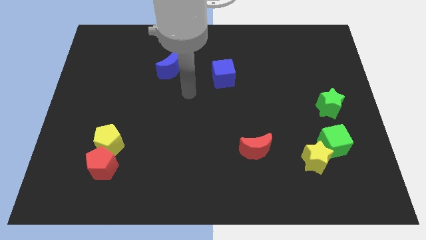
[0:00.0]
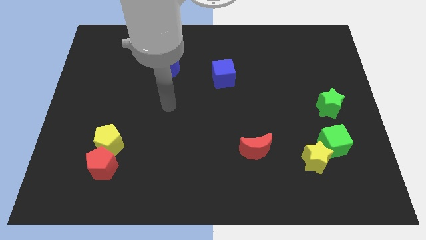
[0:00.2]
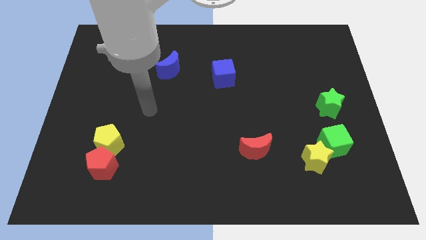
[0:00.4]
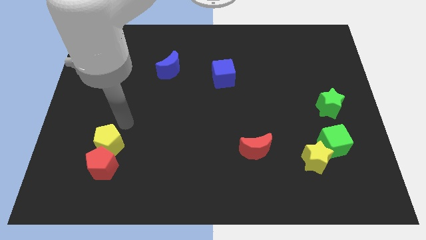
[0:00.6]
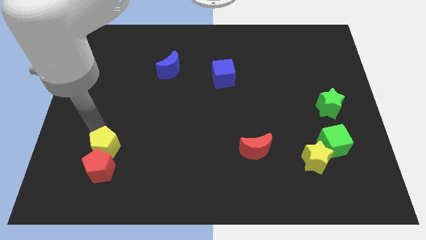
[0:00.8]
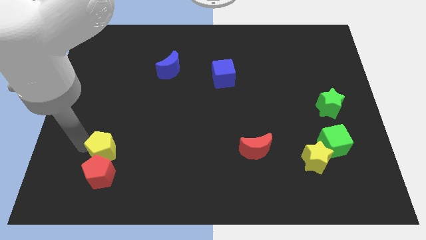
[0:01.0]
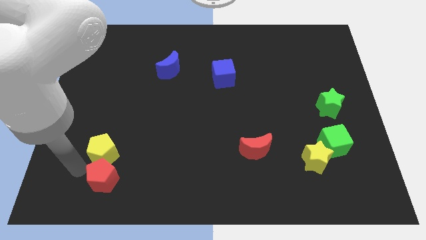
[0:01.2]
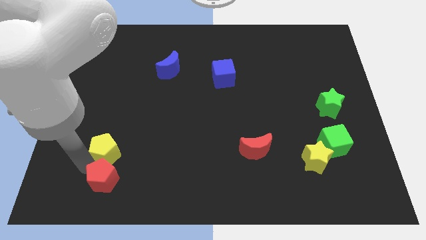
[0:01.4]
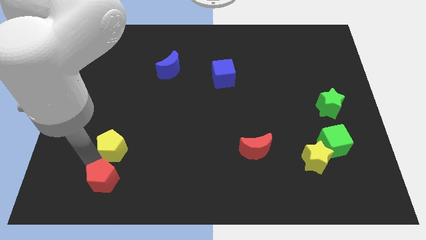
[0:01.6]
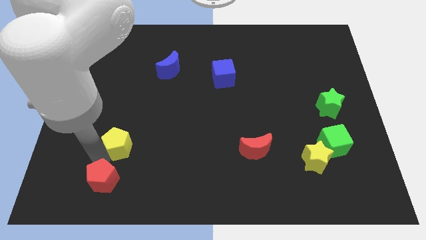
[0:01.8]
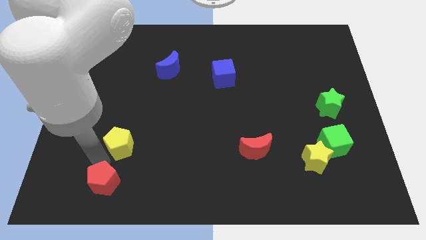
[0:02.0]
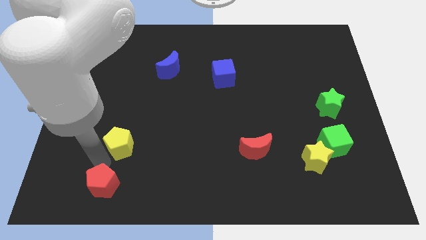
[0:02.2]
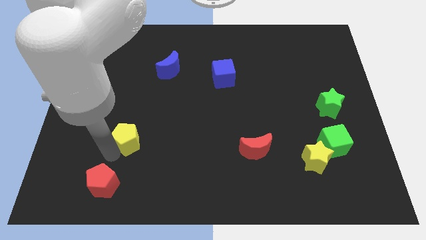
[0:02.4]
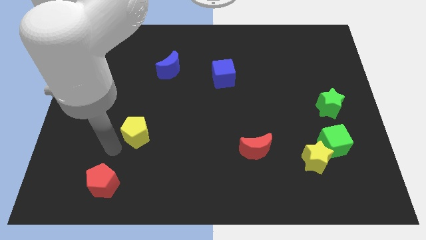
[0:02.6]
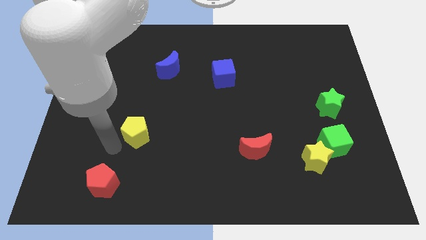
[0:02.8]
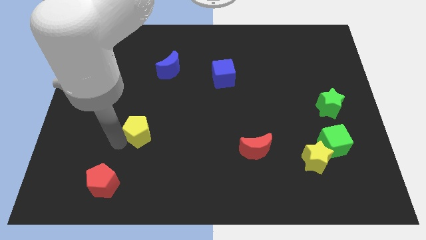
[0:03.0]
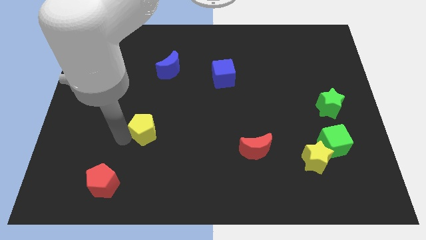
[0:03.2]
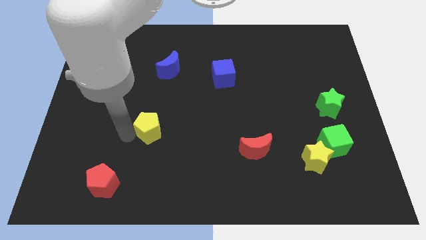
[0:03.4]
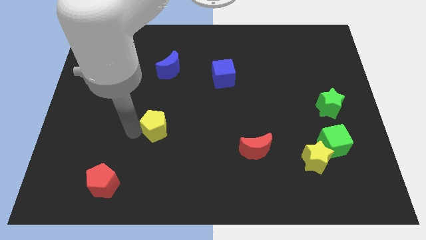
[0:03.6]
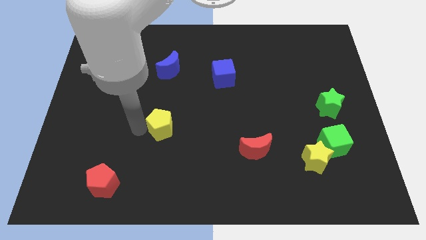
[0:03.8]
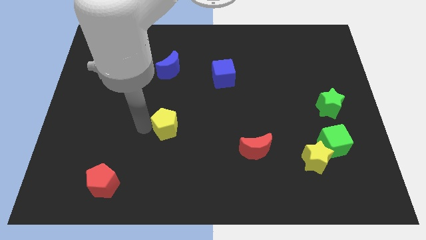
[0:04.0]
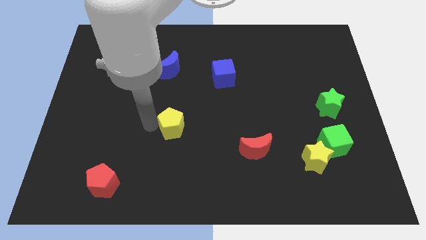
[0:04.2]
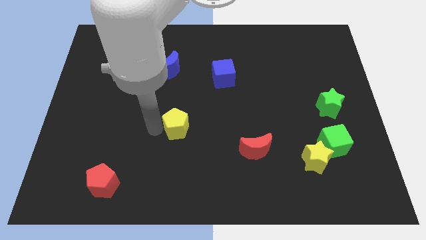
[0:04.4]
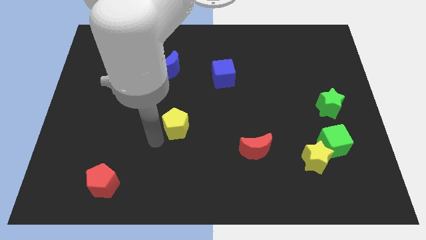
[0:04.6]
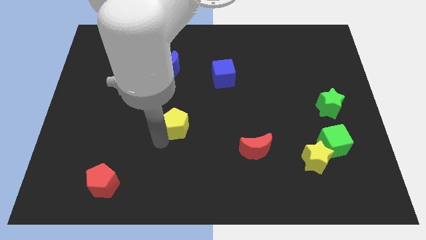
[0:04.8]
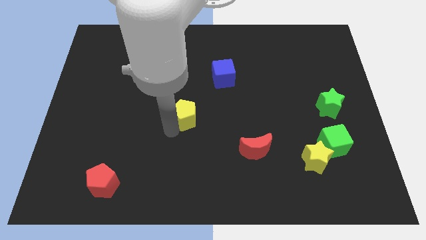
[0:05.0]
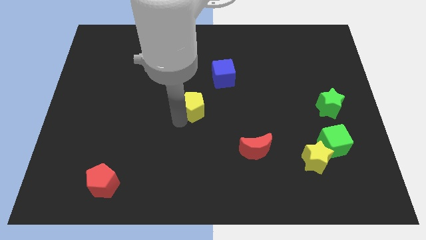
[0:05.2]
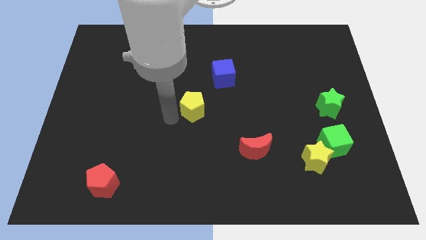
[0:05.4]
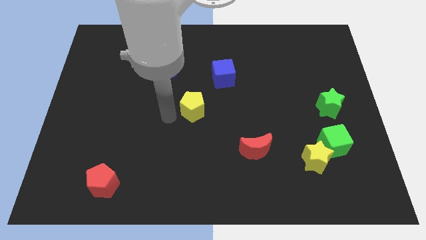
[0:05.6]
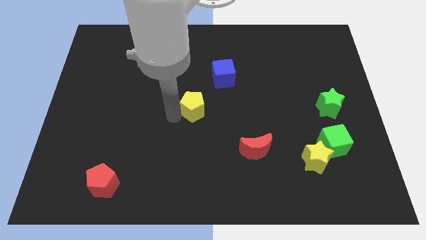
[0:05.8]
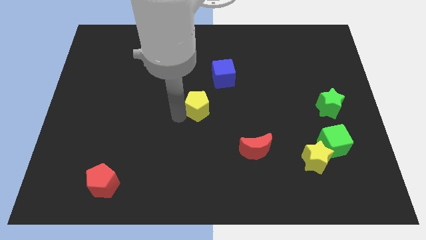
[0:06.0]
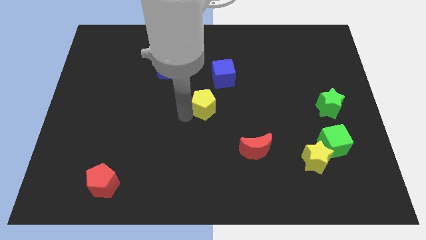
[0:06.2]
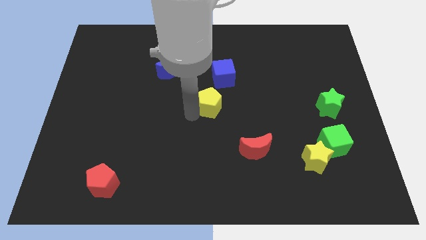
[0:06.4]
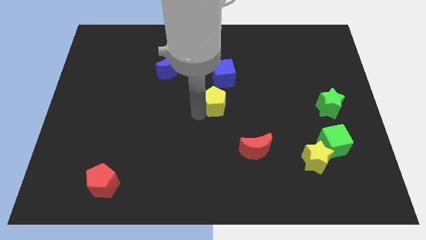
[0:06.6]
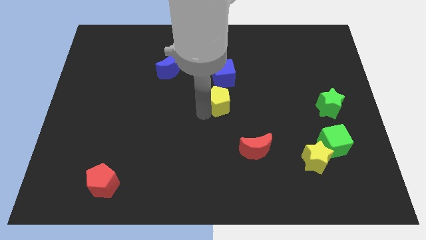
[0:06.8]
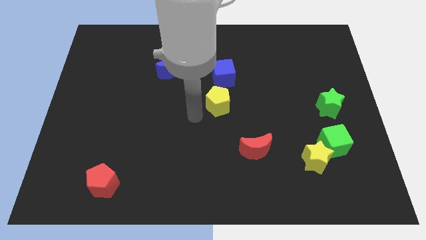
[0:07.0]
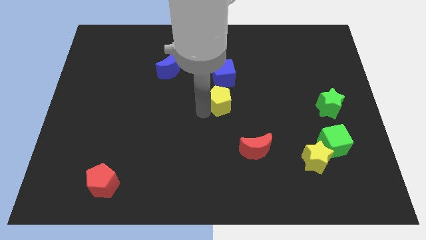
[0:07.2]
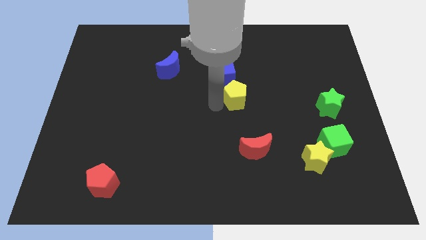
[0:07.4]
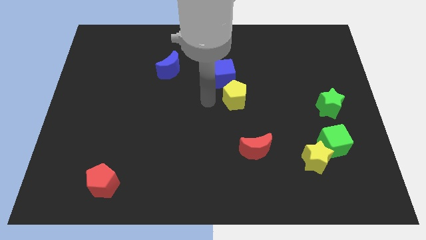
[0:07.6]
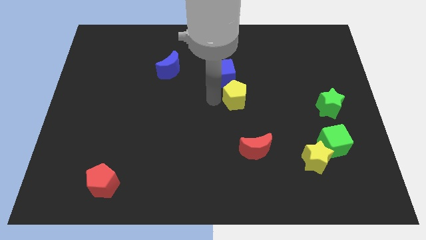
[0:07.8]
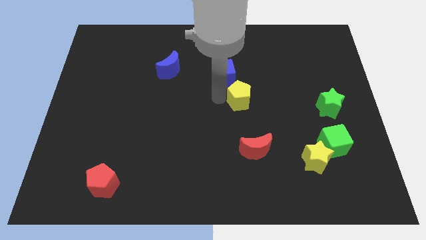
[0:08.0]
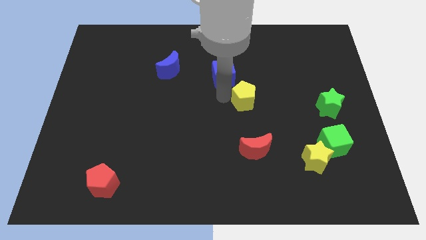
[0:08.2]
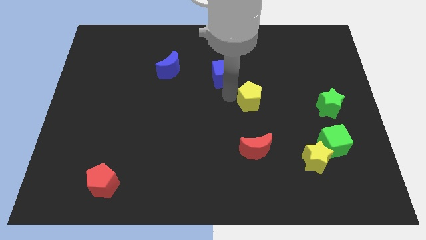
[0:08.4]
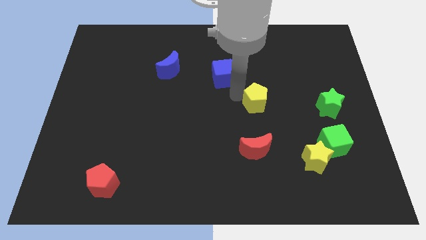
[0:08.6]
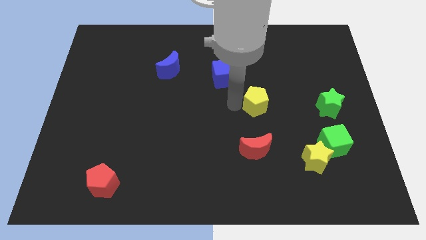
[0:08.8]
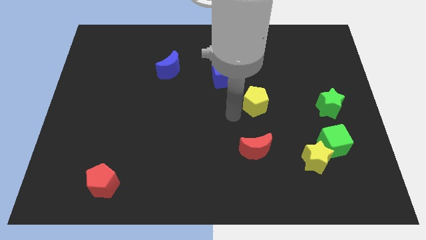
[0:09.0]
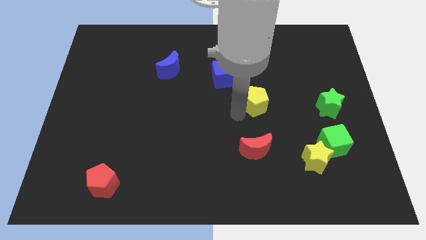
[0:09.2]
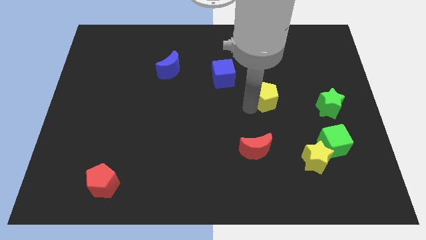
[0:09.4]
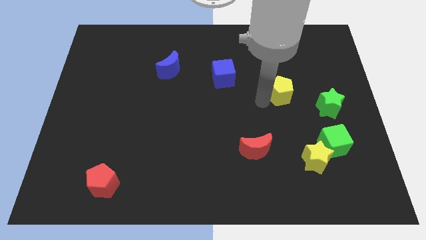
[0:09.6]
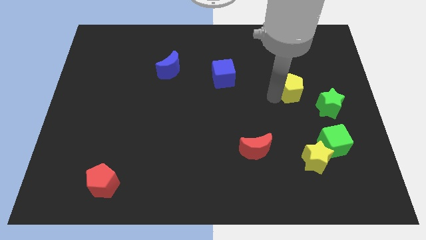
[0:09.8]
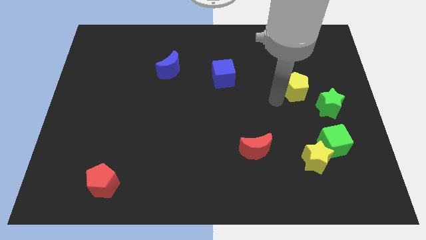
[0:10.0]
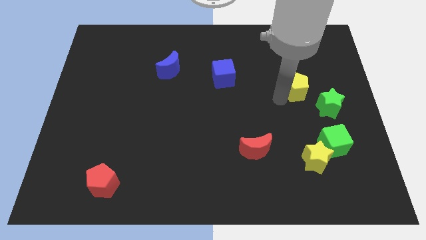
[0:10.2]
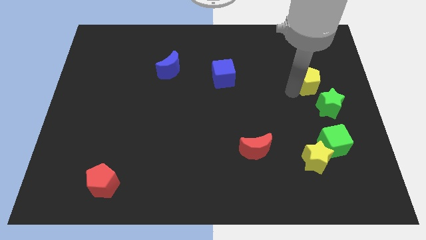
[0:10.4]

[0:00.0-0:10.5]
push the yellow pentagon above the green star

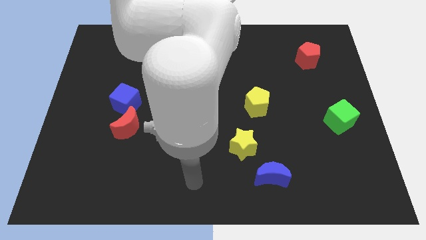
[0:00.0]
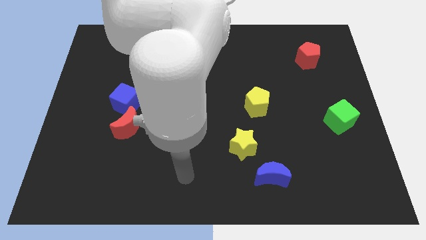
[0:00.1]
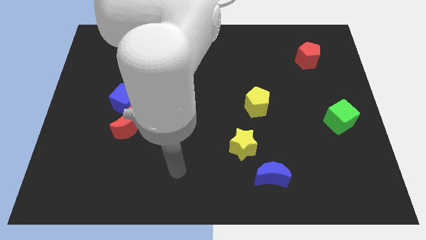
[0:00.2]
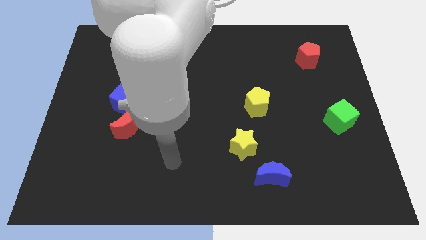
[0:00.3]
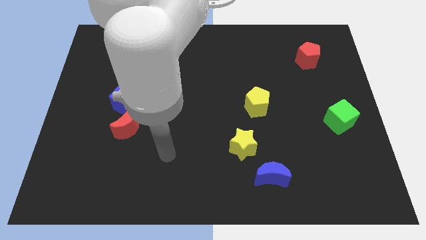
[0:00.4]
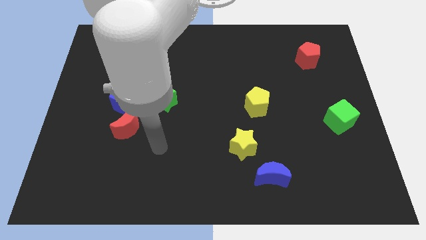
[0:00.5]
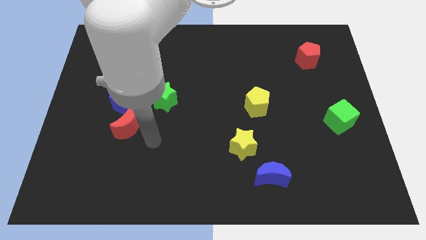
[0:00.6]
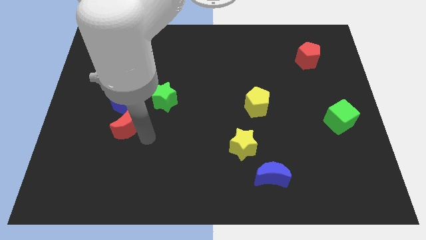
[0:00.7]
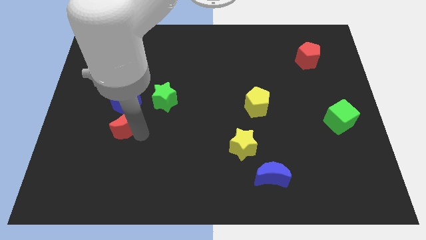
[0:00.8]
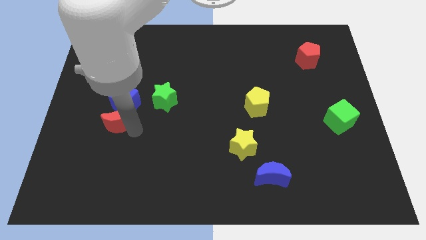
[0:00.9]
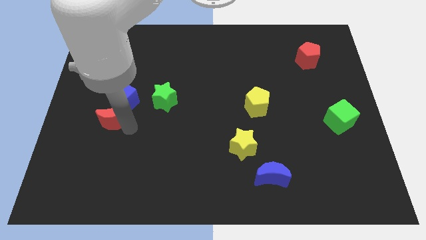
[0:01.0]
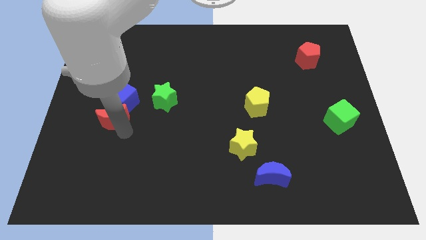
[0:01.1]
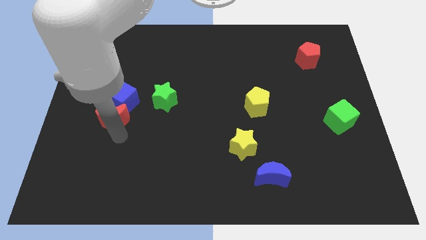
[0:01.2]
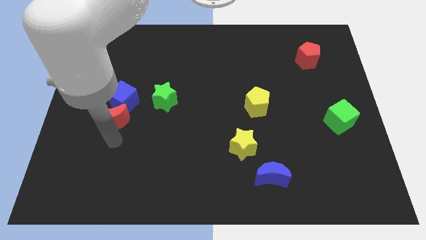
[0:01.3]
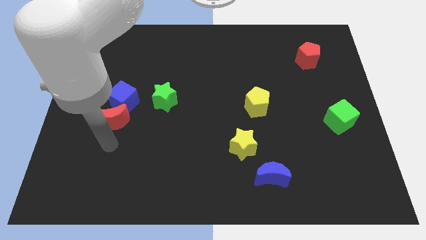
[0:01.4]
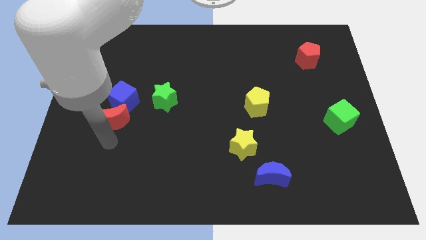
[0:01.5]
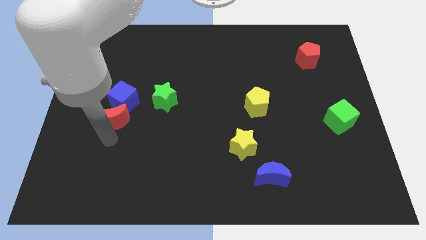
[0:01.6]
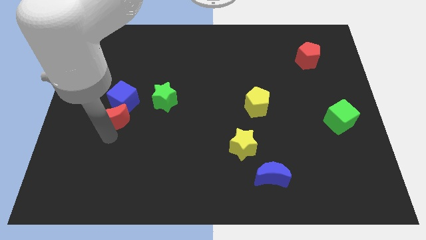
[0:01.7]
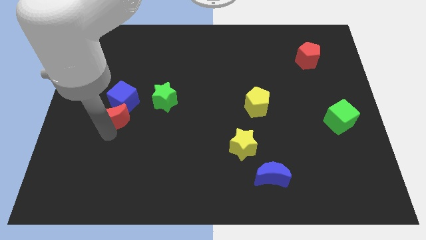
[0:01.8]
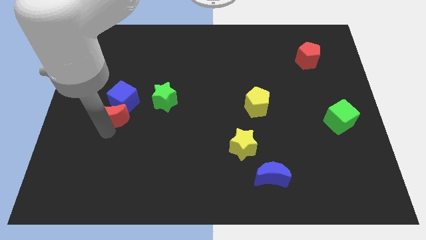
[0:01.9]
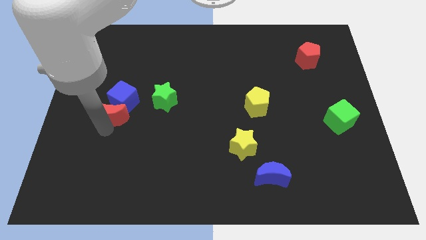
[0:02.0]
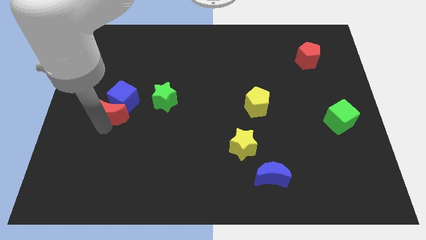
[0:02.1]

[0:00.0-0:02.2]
slide the red moon left of the green star
